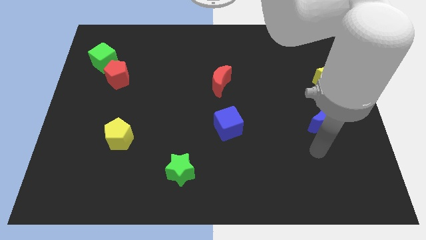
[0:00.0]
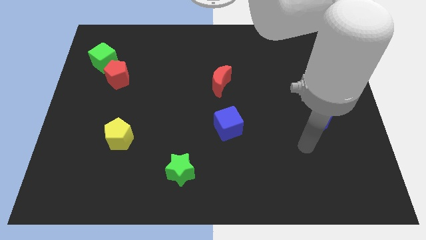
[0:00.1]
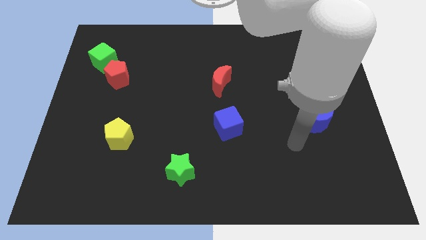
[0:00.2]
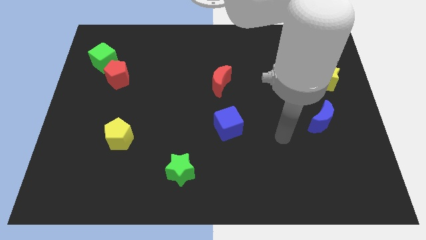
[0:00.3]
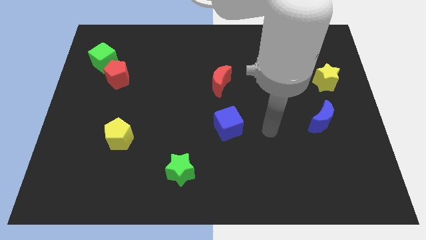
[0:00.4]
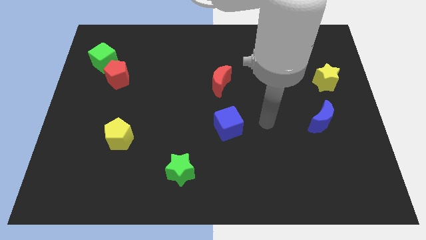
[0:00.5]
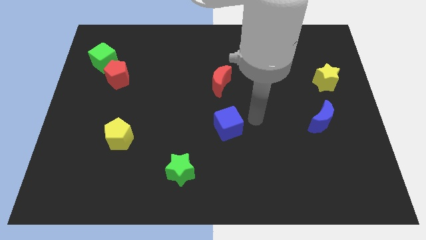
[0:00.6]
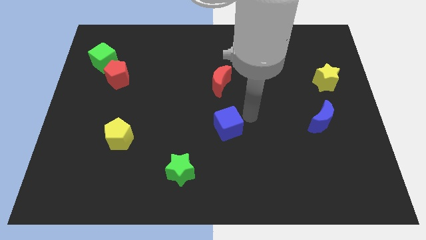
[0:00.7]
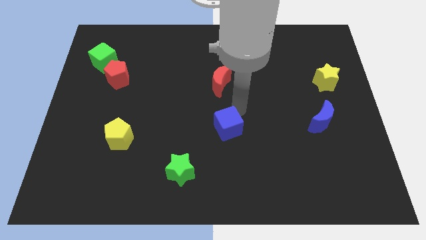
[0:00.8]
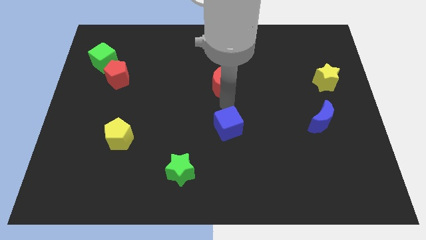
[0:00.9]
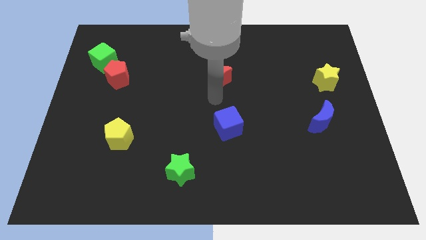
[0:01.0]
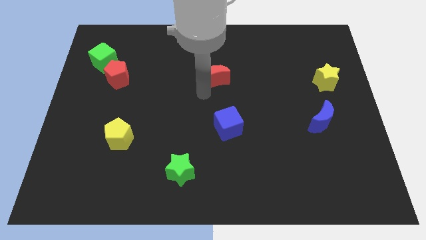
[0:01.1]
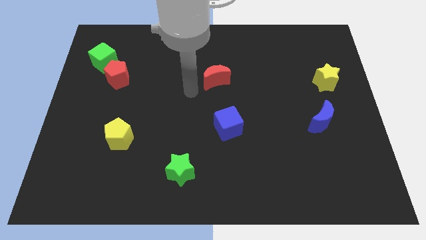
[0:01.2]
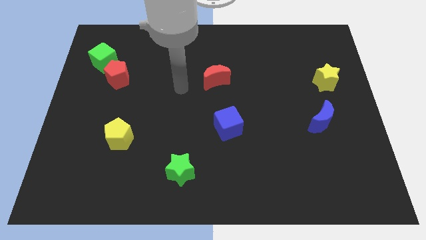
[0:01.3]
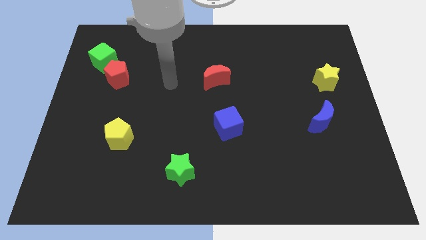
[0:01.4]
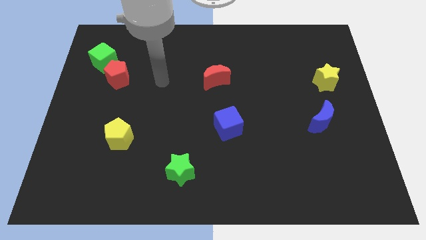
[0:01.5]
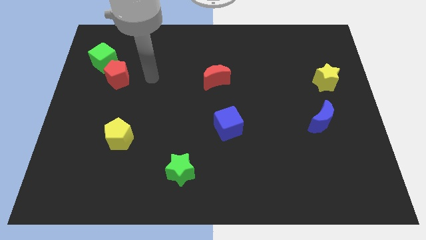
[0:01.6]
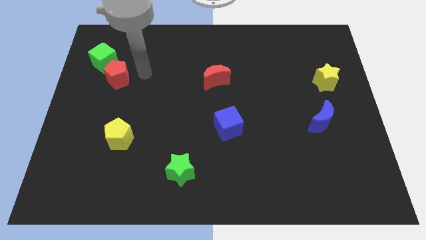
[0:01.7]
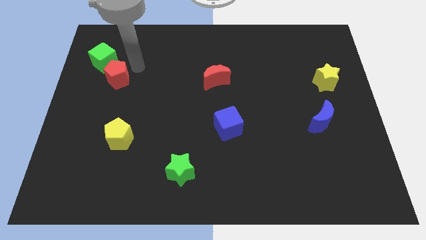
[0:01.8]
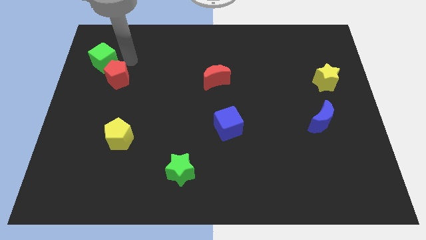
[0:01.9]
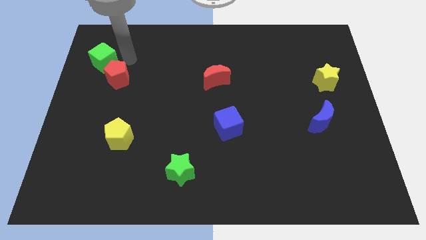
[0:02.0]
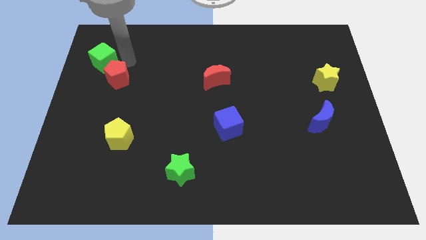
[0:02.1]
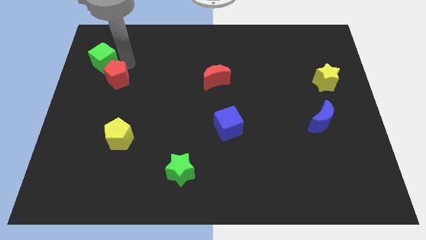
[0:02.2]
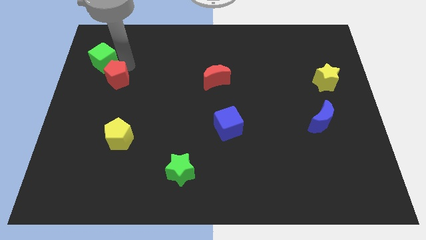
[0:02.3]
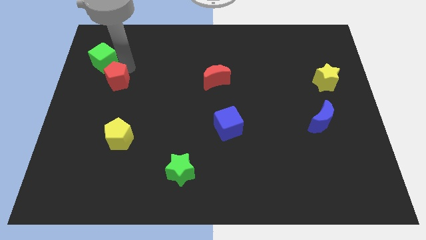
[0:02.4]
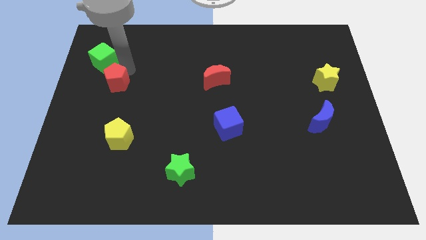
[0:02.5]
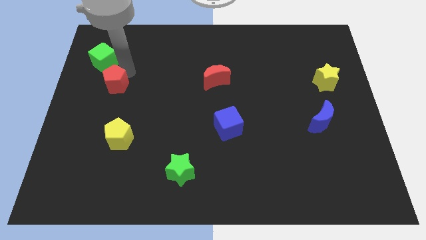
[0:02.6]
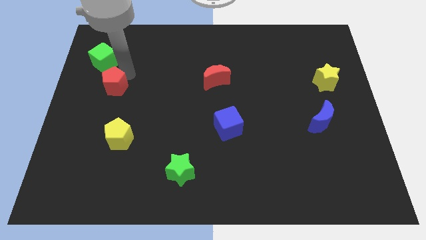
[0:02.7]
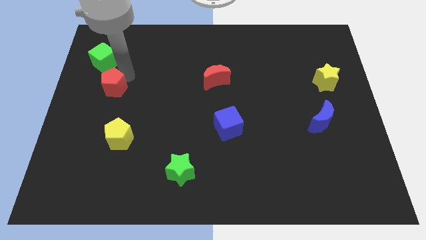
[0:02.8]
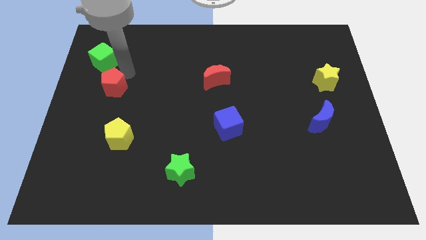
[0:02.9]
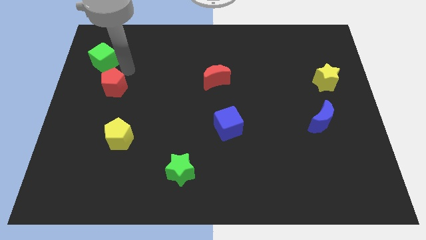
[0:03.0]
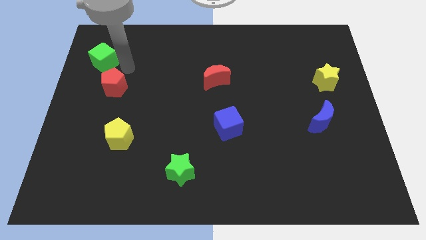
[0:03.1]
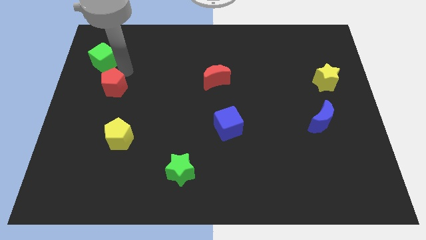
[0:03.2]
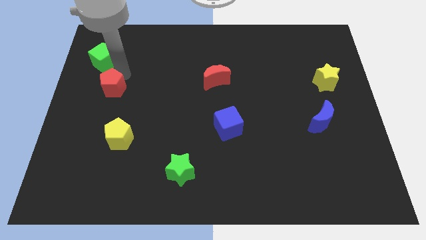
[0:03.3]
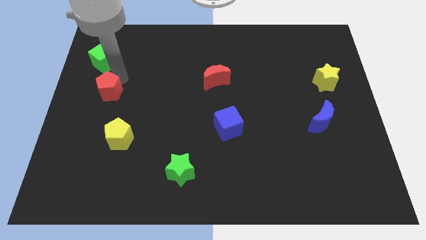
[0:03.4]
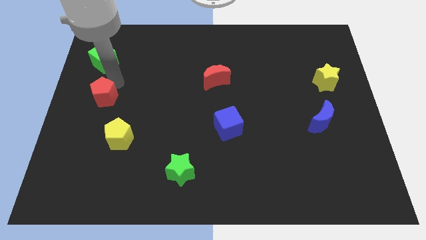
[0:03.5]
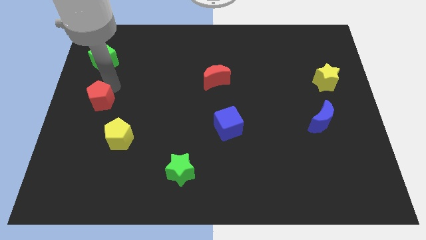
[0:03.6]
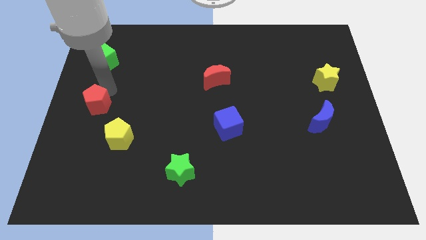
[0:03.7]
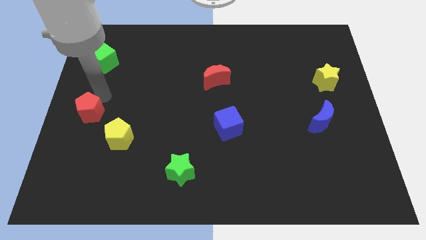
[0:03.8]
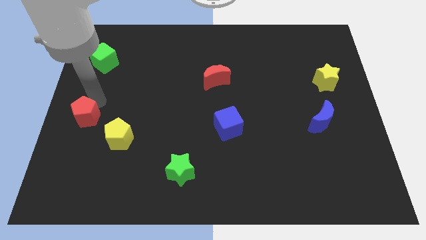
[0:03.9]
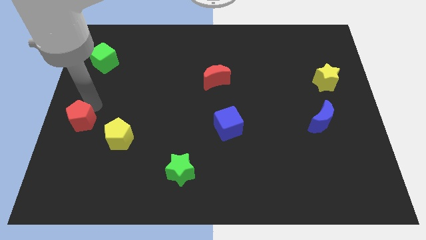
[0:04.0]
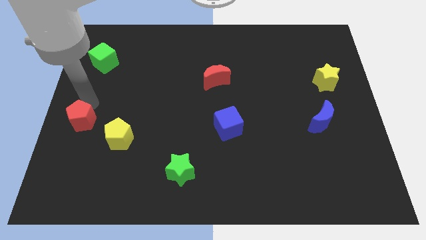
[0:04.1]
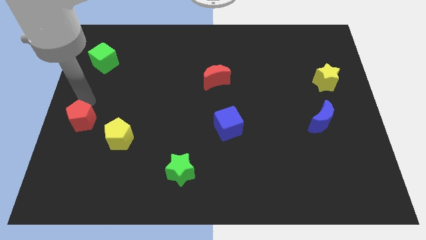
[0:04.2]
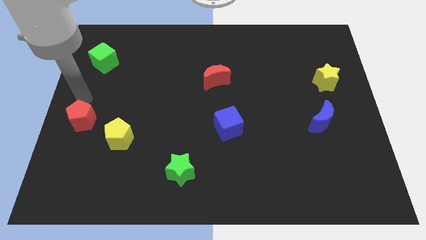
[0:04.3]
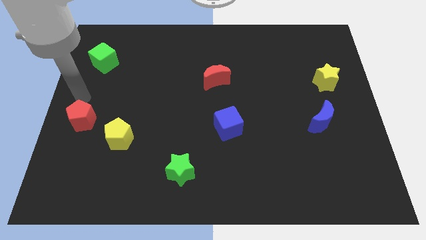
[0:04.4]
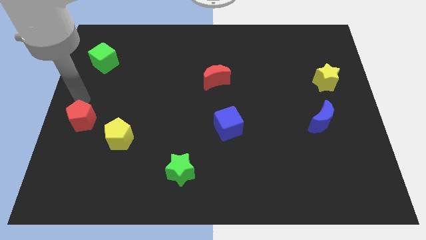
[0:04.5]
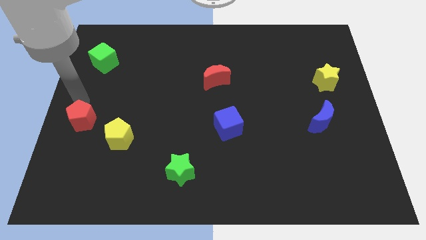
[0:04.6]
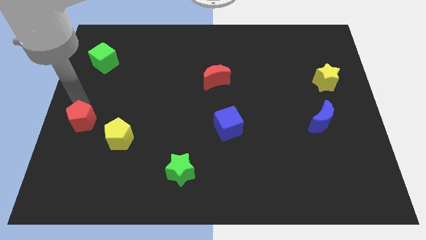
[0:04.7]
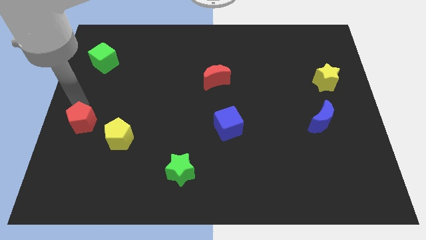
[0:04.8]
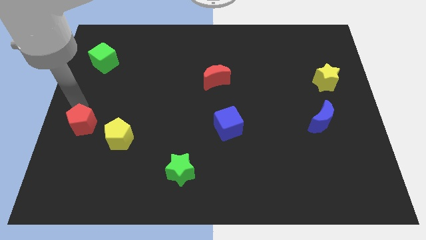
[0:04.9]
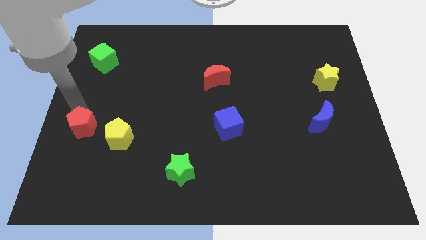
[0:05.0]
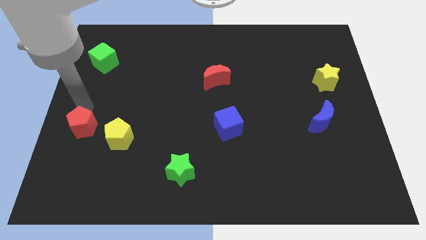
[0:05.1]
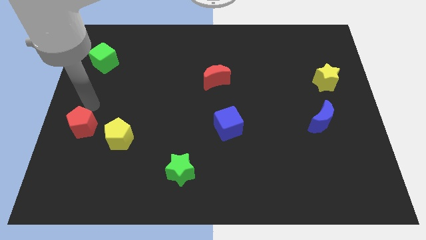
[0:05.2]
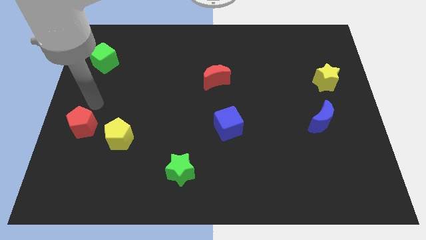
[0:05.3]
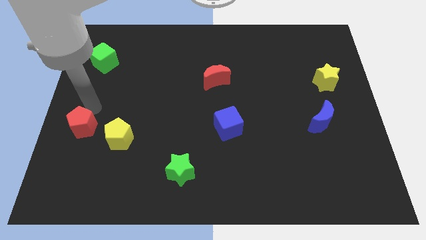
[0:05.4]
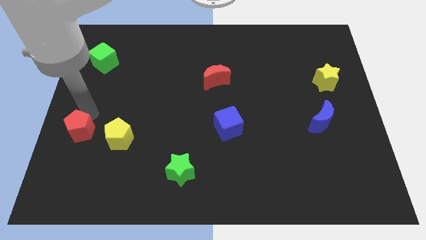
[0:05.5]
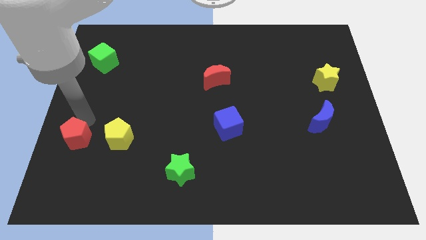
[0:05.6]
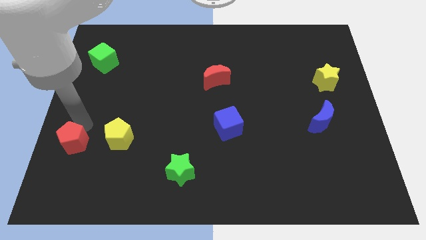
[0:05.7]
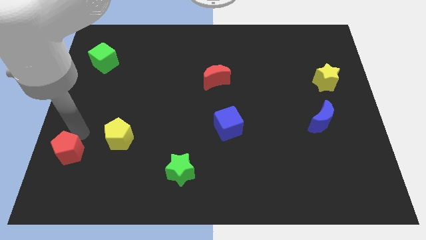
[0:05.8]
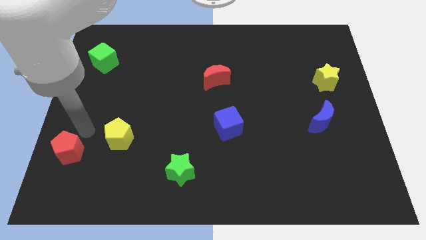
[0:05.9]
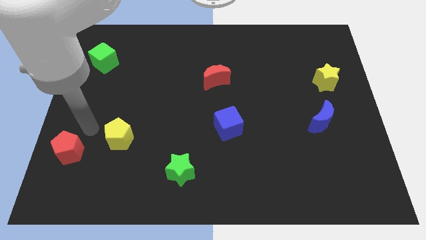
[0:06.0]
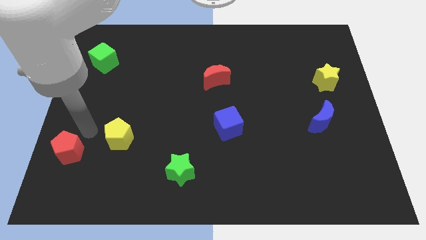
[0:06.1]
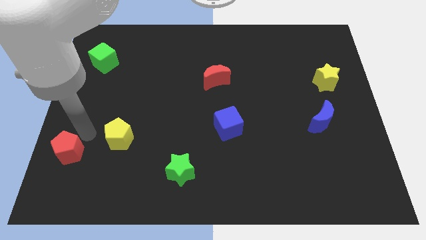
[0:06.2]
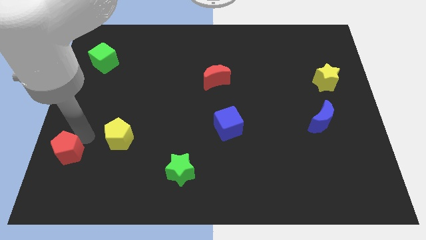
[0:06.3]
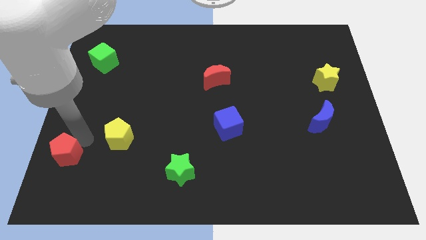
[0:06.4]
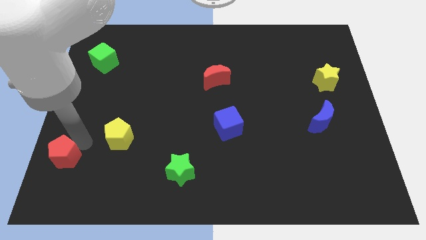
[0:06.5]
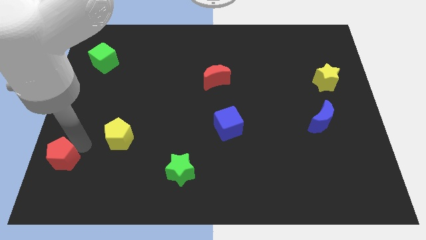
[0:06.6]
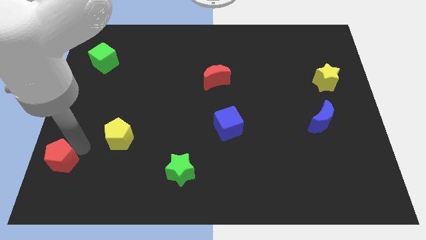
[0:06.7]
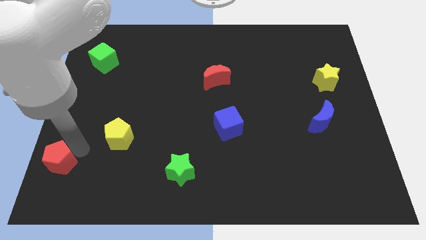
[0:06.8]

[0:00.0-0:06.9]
move the red pentagon to the bottom left of the board
